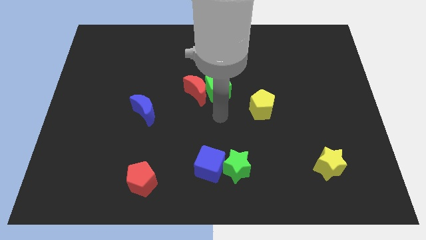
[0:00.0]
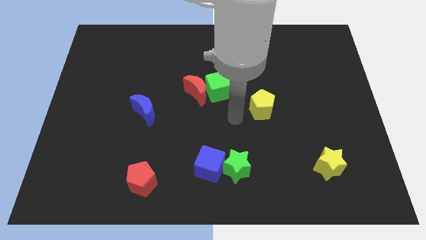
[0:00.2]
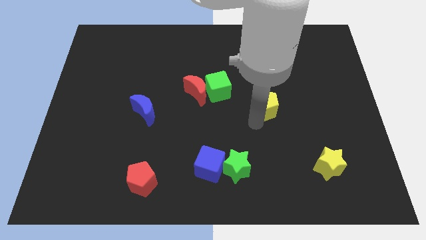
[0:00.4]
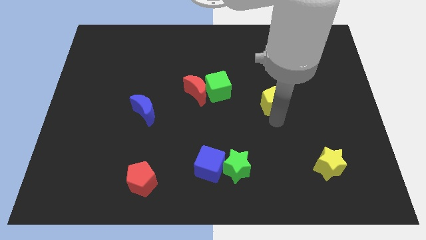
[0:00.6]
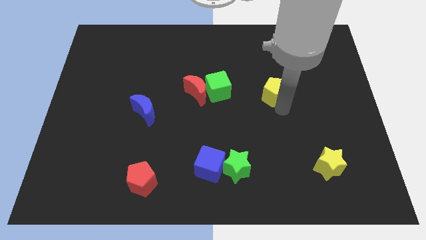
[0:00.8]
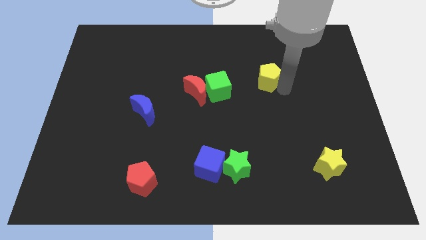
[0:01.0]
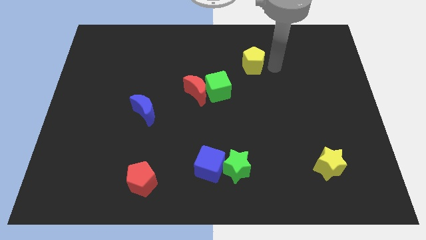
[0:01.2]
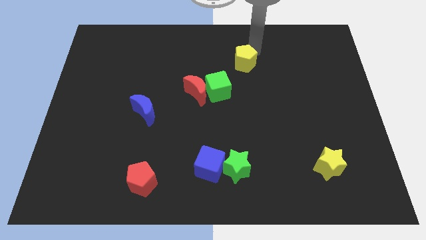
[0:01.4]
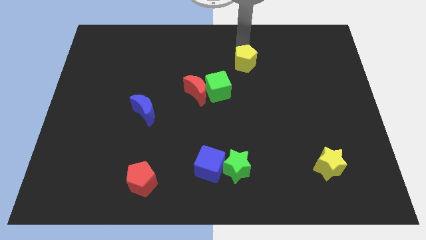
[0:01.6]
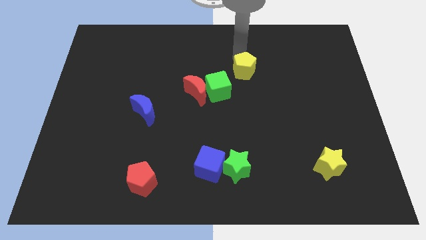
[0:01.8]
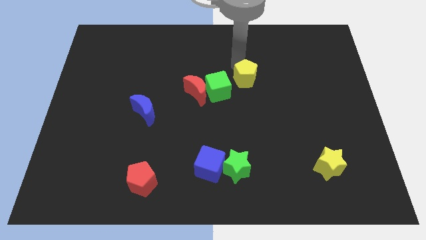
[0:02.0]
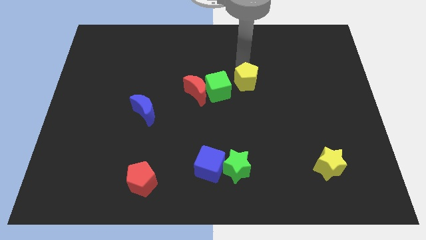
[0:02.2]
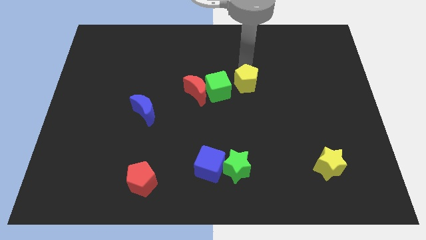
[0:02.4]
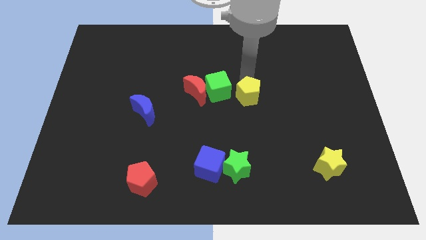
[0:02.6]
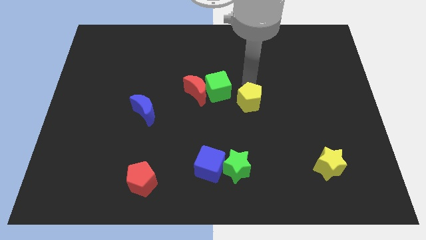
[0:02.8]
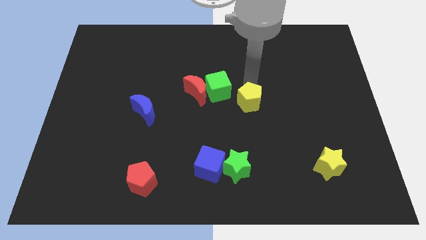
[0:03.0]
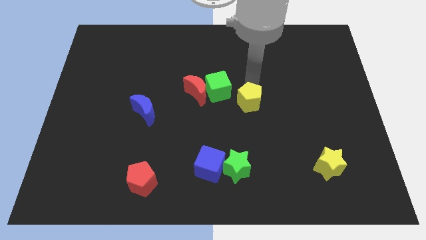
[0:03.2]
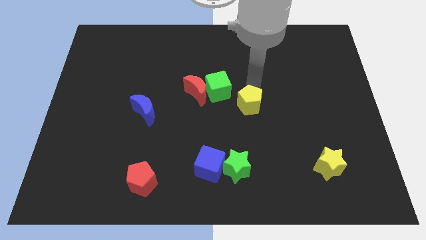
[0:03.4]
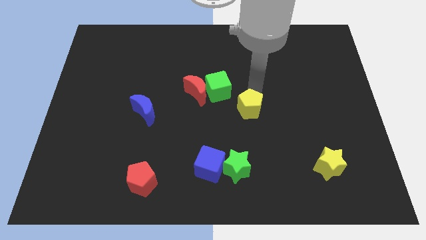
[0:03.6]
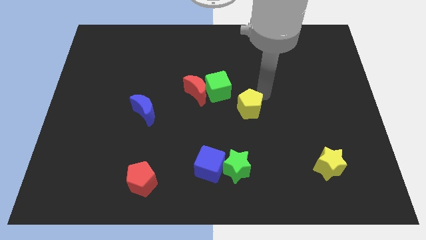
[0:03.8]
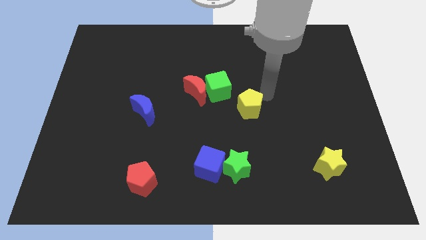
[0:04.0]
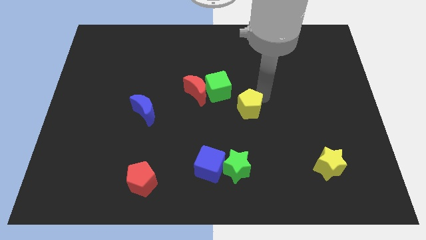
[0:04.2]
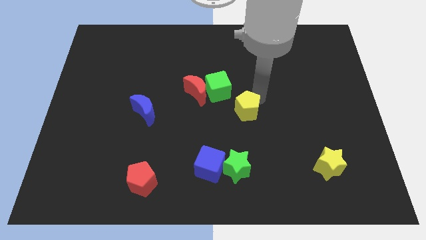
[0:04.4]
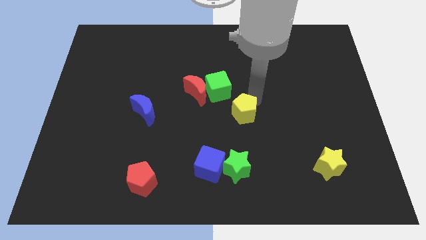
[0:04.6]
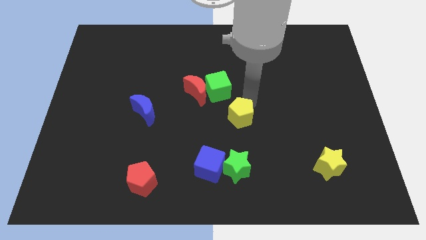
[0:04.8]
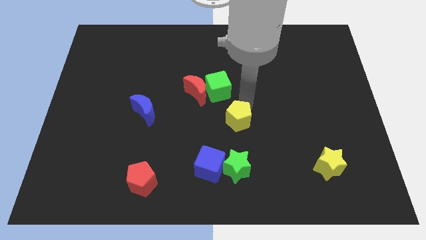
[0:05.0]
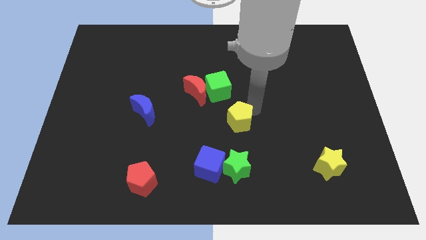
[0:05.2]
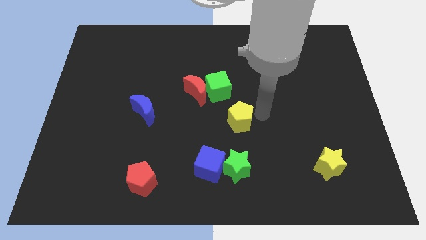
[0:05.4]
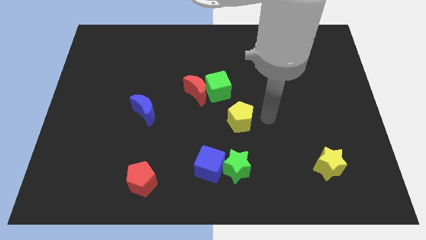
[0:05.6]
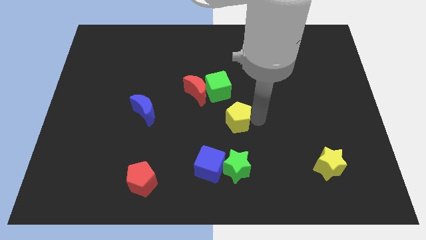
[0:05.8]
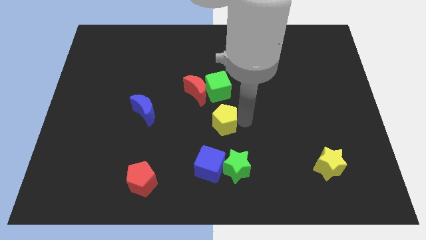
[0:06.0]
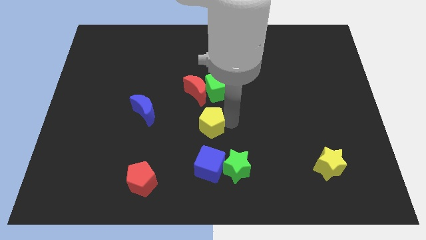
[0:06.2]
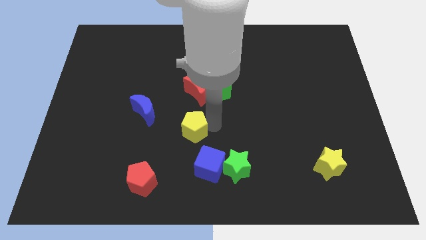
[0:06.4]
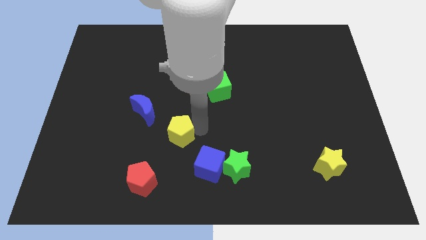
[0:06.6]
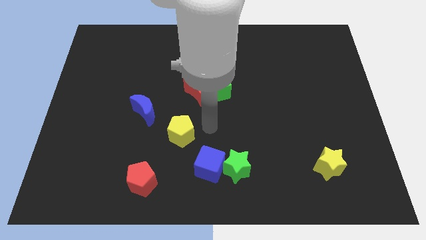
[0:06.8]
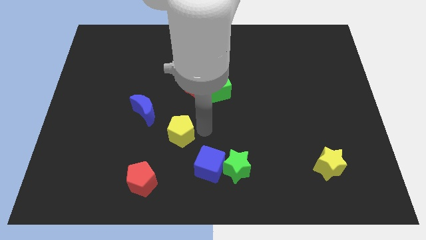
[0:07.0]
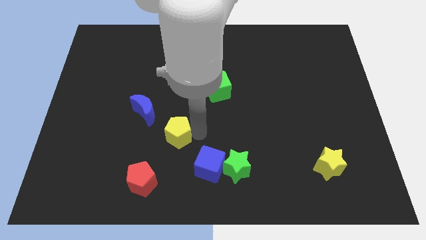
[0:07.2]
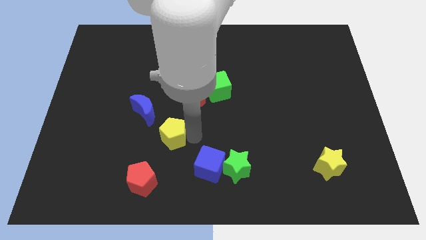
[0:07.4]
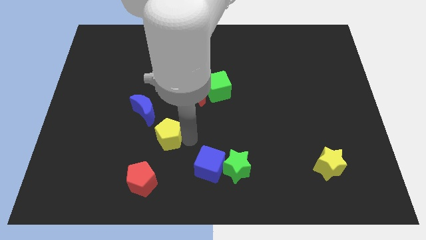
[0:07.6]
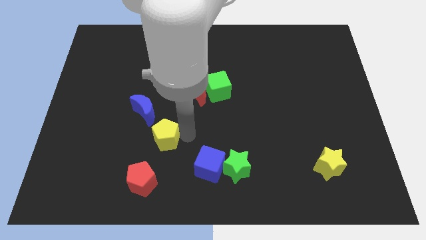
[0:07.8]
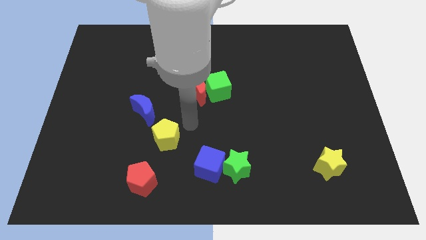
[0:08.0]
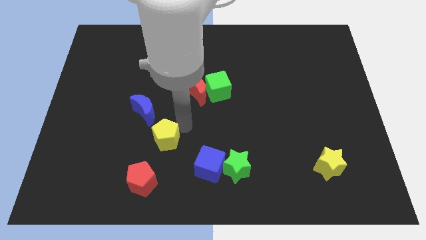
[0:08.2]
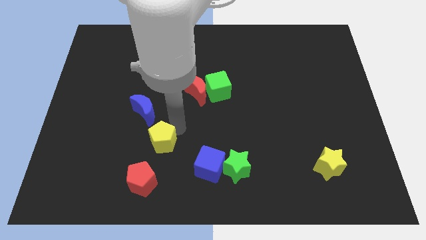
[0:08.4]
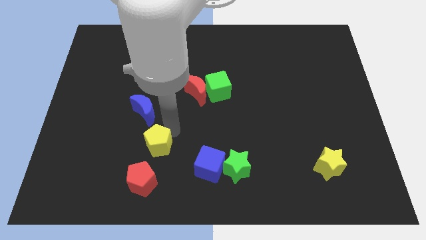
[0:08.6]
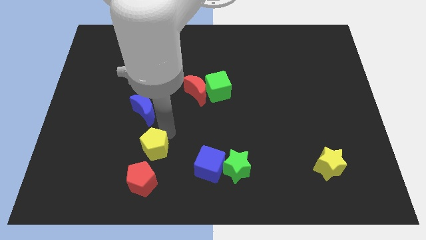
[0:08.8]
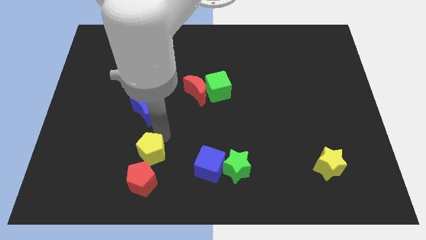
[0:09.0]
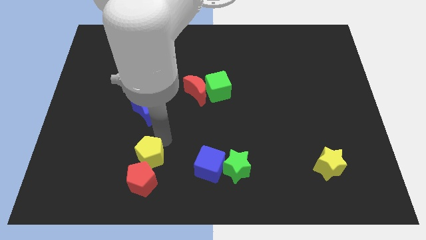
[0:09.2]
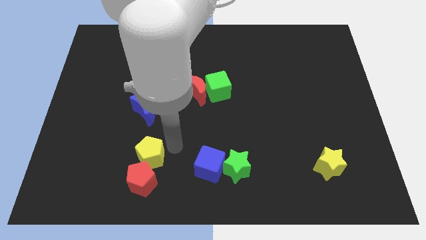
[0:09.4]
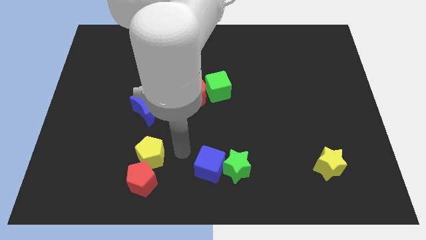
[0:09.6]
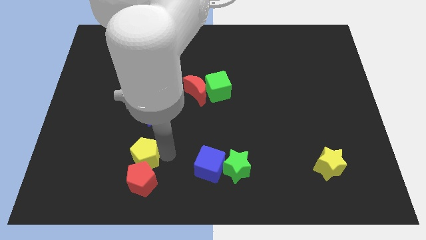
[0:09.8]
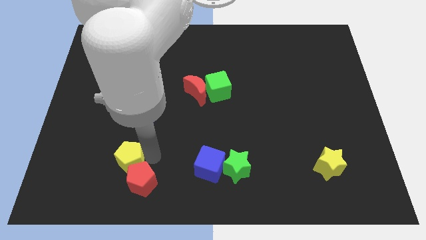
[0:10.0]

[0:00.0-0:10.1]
move the yellow pentagon left of the red pentagon

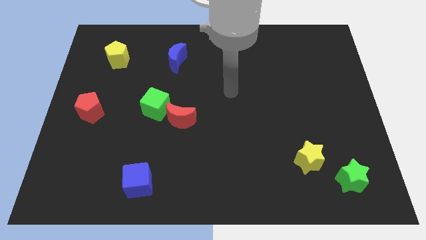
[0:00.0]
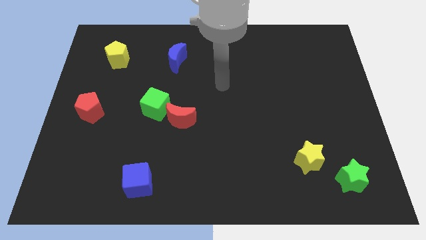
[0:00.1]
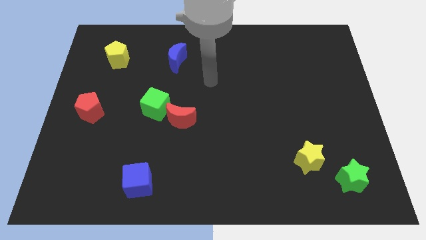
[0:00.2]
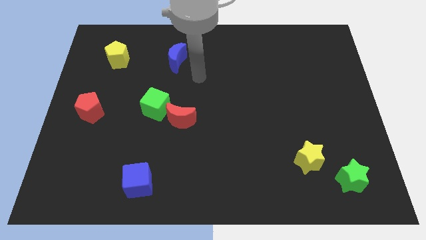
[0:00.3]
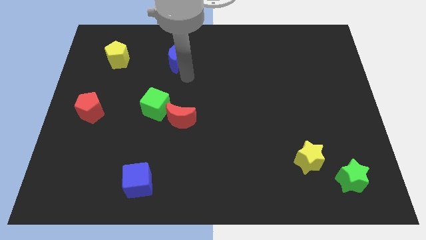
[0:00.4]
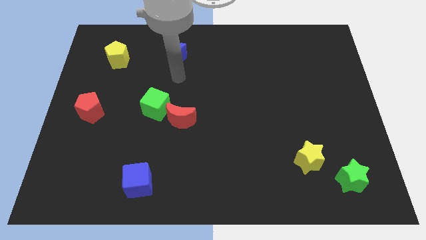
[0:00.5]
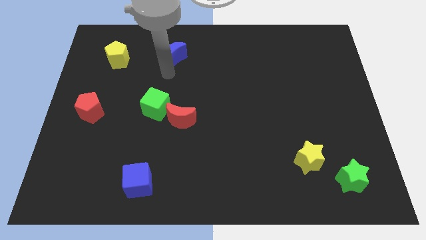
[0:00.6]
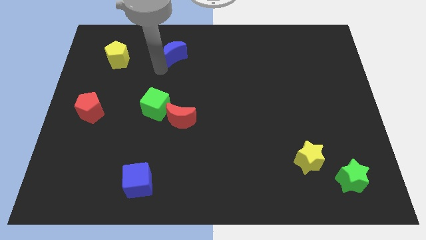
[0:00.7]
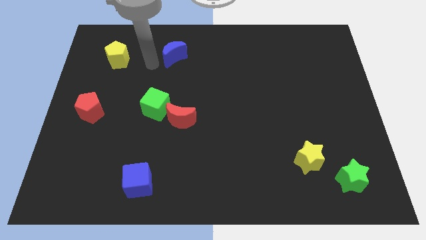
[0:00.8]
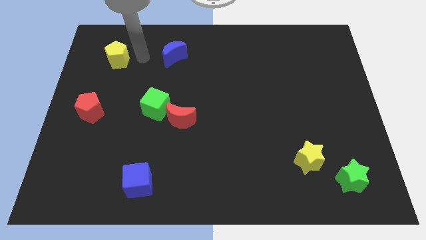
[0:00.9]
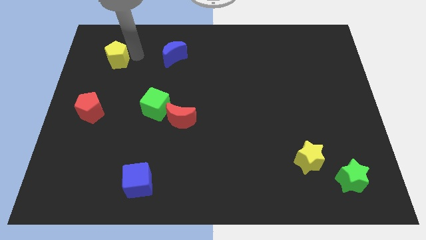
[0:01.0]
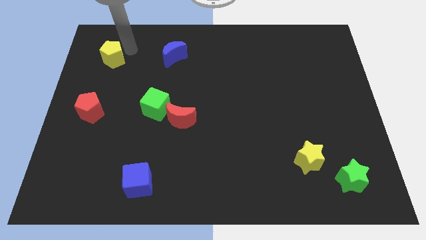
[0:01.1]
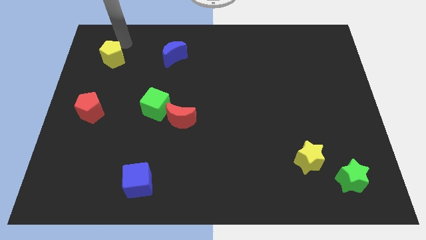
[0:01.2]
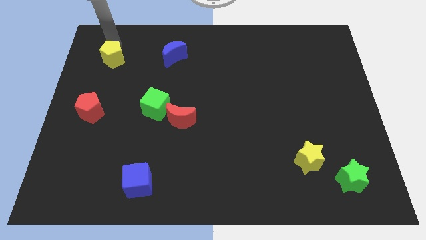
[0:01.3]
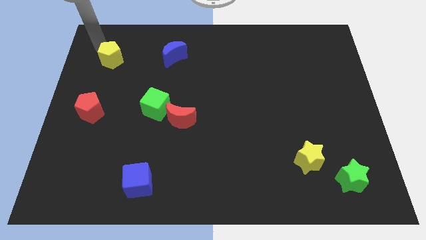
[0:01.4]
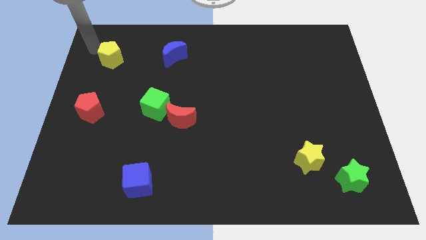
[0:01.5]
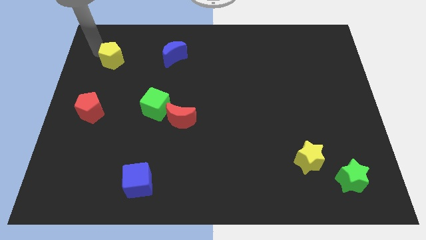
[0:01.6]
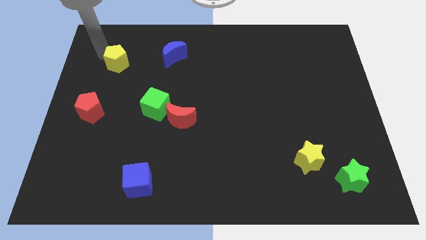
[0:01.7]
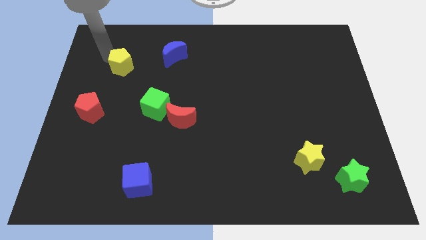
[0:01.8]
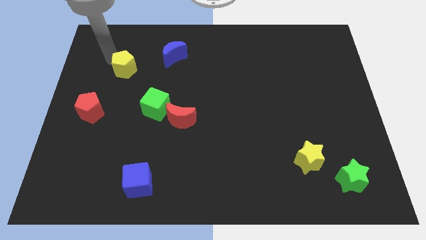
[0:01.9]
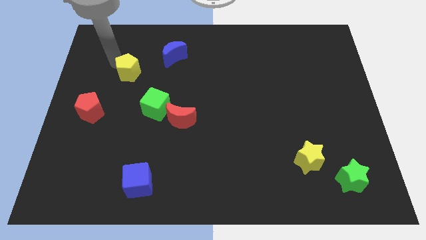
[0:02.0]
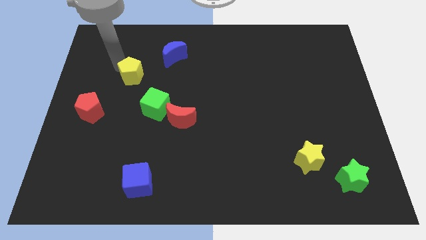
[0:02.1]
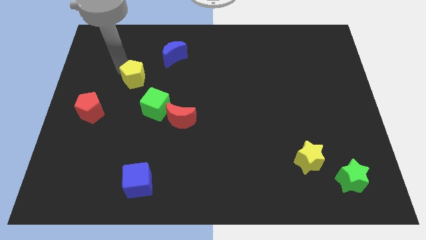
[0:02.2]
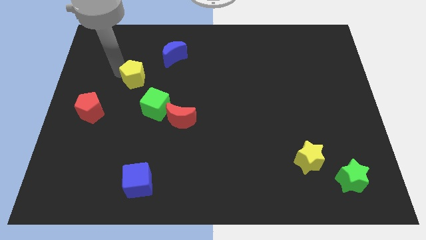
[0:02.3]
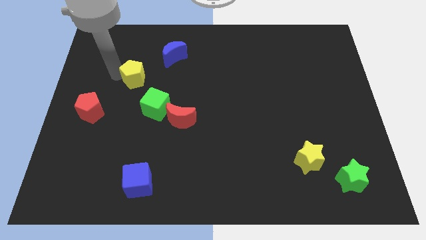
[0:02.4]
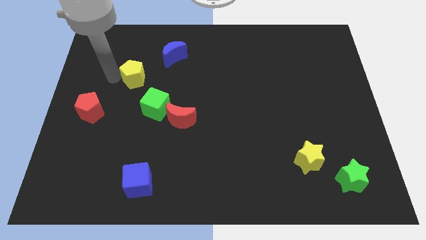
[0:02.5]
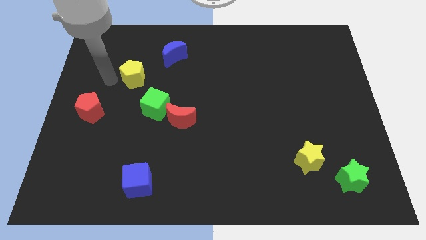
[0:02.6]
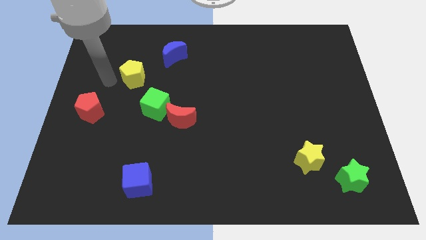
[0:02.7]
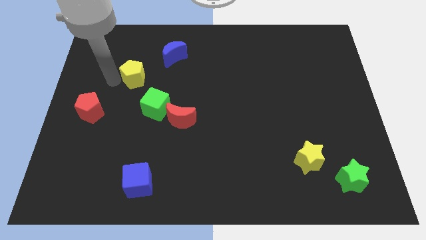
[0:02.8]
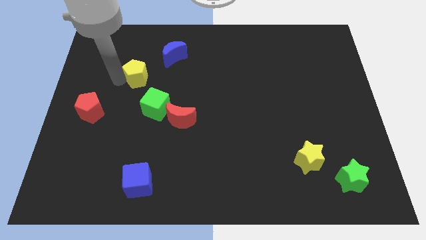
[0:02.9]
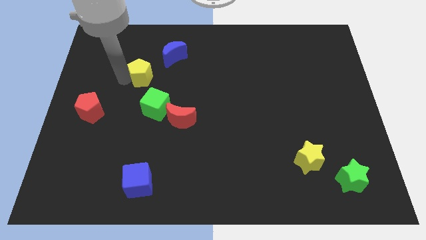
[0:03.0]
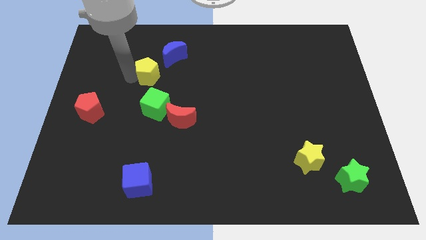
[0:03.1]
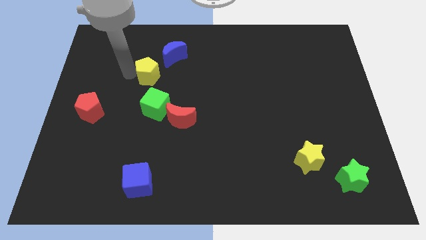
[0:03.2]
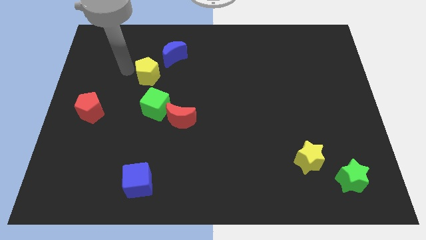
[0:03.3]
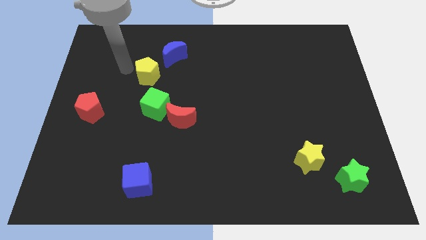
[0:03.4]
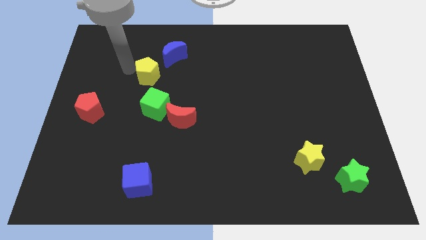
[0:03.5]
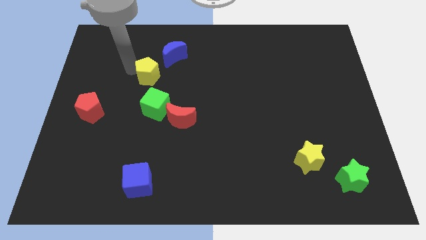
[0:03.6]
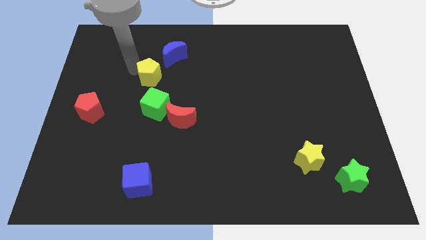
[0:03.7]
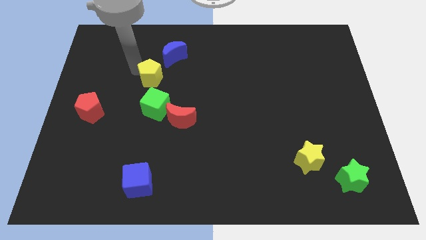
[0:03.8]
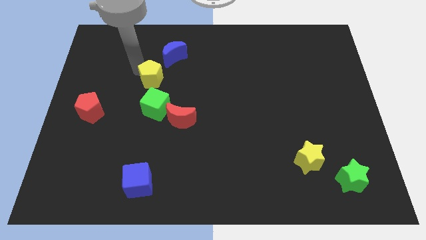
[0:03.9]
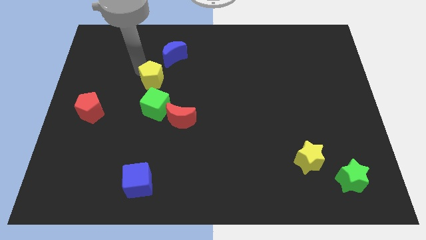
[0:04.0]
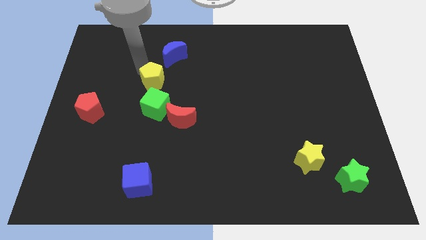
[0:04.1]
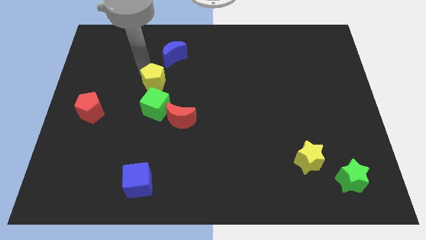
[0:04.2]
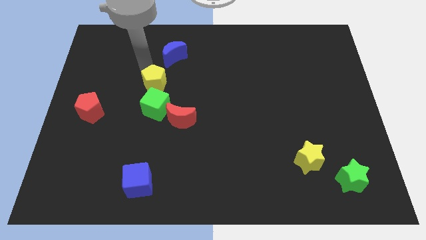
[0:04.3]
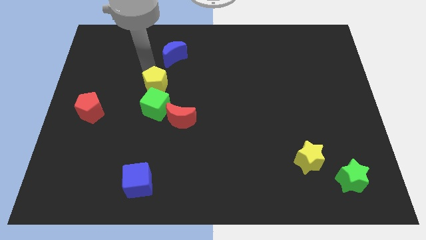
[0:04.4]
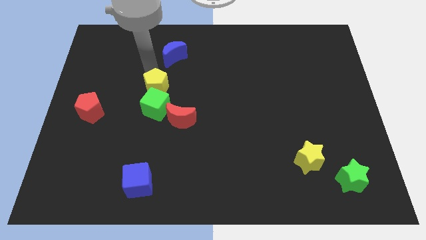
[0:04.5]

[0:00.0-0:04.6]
push the yellow pentagon to the top right side of the green cube
